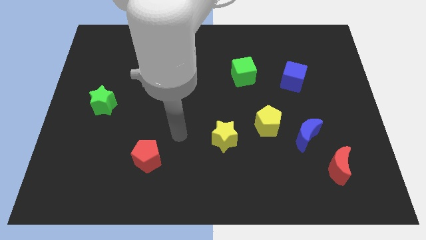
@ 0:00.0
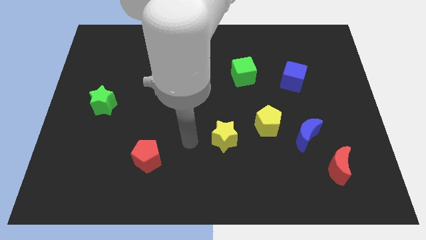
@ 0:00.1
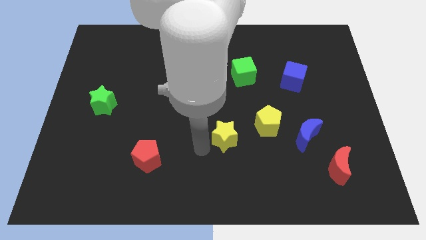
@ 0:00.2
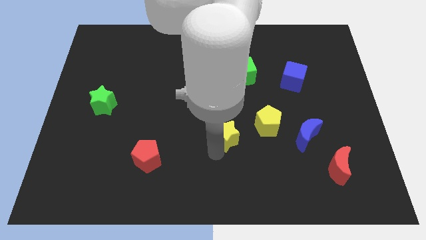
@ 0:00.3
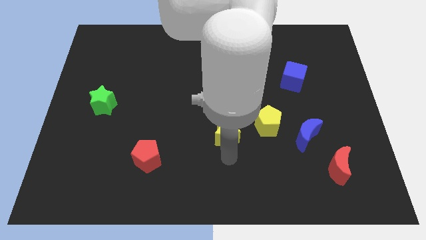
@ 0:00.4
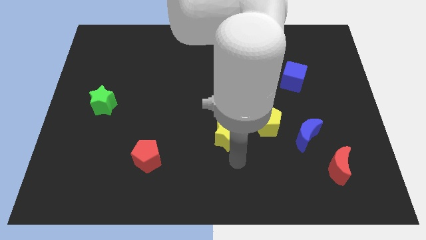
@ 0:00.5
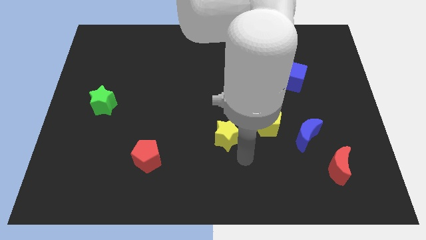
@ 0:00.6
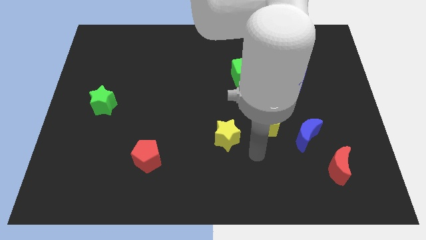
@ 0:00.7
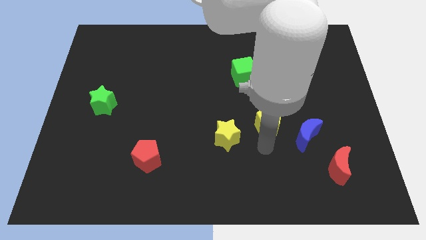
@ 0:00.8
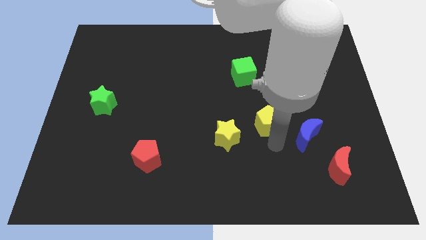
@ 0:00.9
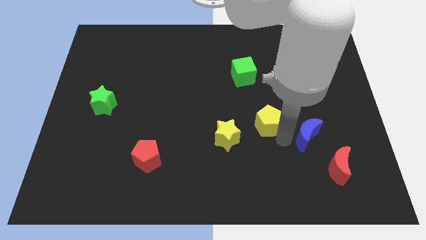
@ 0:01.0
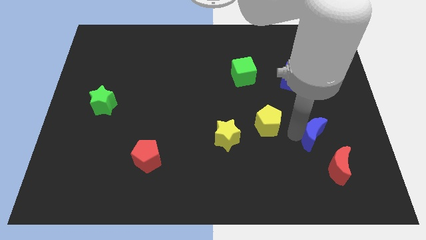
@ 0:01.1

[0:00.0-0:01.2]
pull the yellow pentagon apart from the blue moon

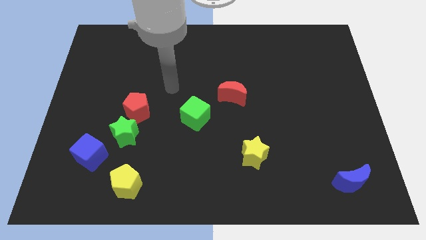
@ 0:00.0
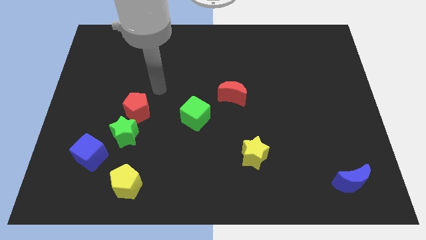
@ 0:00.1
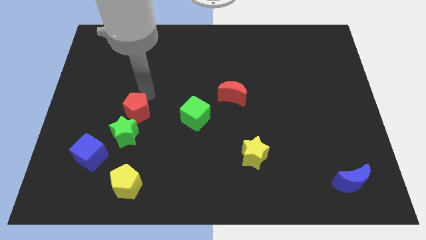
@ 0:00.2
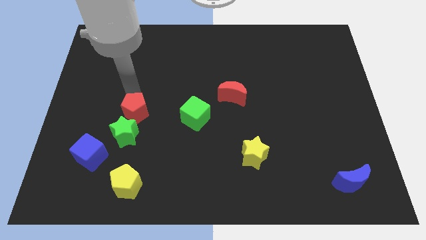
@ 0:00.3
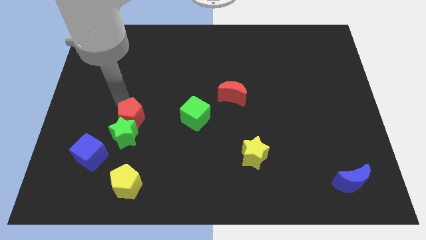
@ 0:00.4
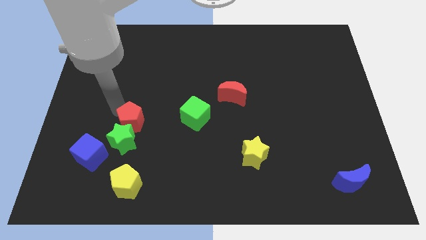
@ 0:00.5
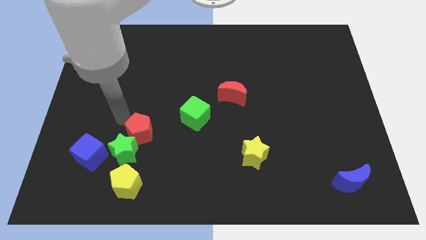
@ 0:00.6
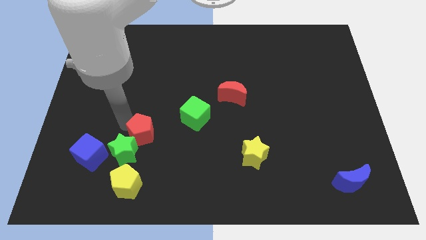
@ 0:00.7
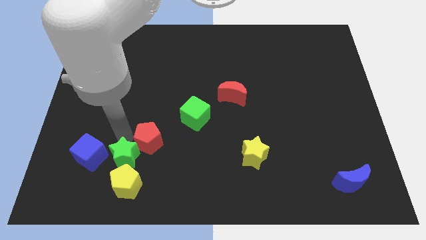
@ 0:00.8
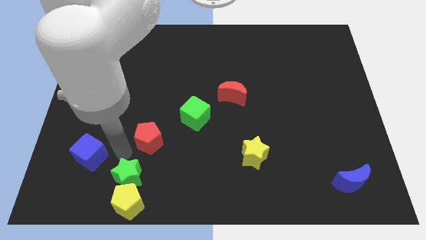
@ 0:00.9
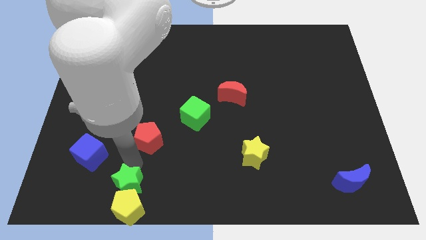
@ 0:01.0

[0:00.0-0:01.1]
separate the red pentagon from the green star

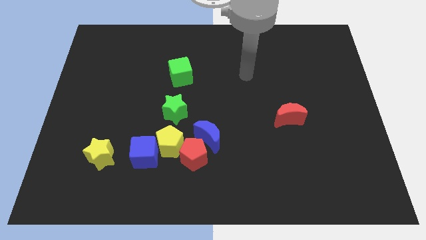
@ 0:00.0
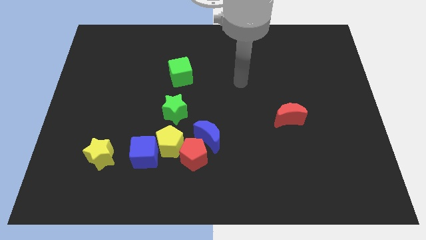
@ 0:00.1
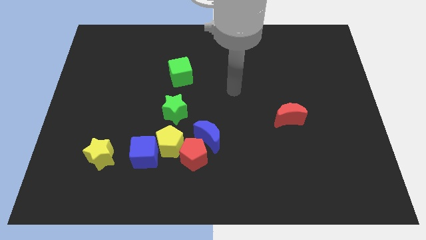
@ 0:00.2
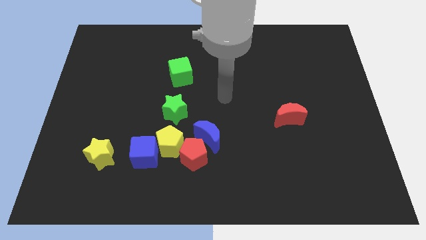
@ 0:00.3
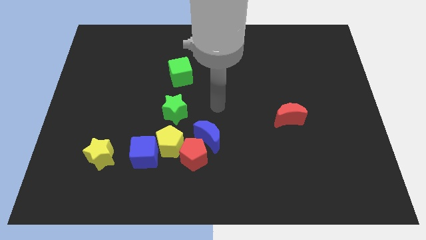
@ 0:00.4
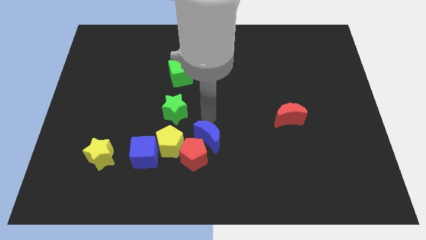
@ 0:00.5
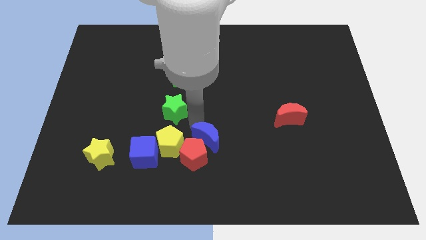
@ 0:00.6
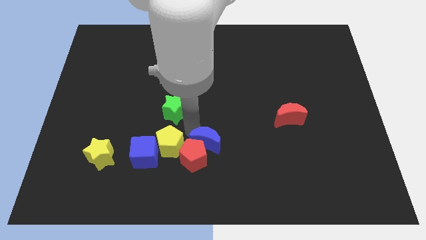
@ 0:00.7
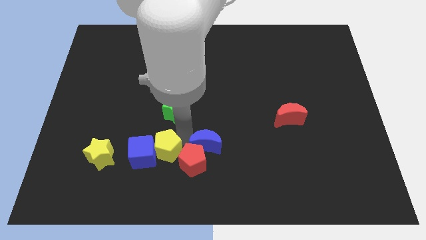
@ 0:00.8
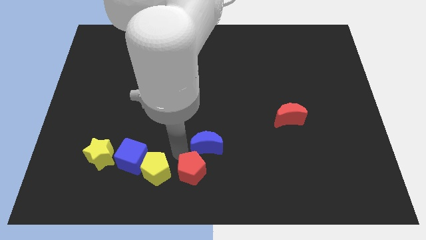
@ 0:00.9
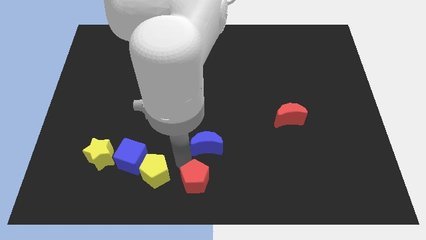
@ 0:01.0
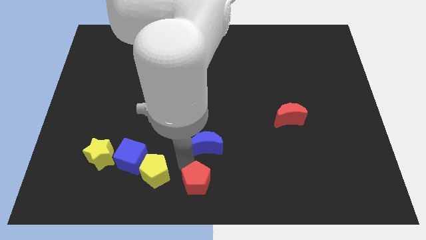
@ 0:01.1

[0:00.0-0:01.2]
separate the blue moon from the red pentagon and yellow pentagon

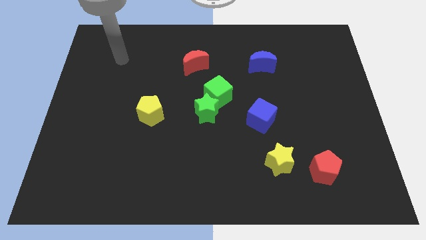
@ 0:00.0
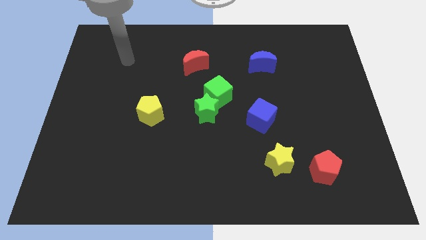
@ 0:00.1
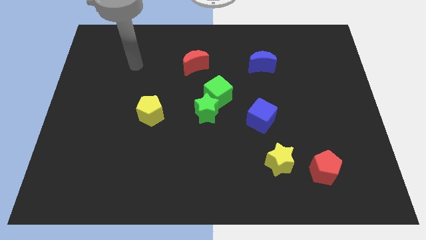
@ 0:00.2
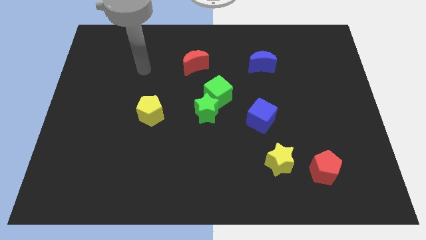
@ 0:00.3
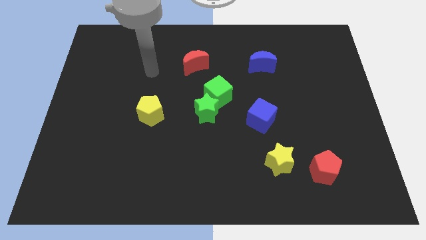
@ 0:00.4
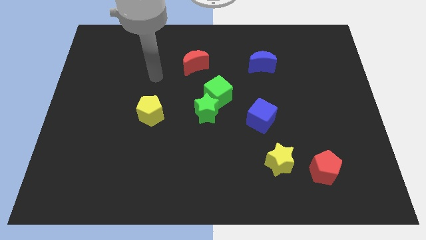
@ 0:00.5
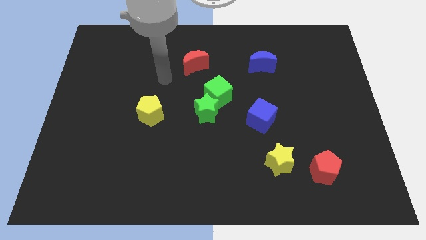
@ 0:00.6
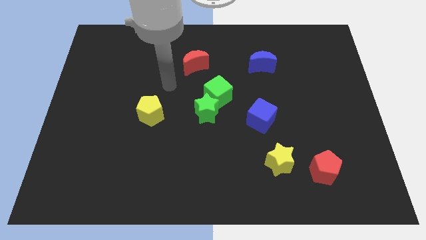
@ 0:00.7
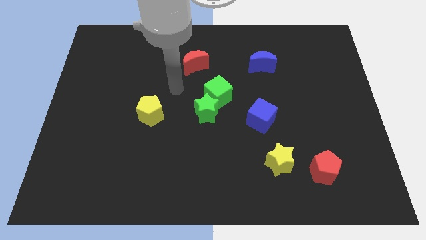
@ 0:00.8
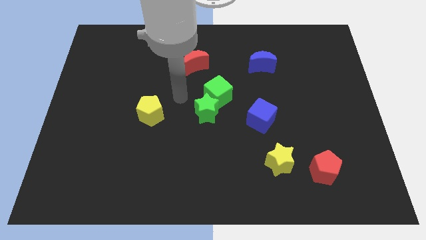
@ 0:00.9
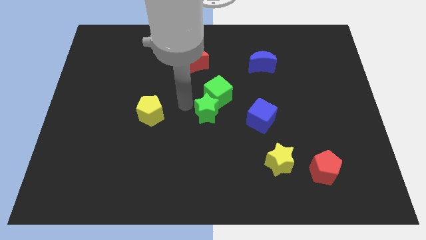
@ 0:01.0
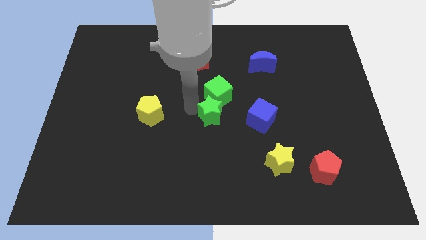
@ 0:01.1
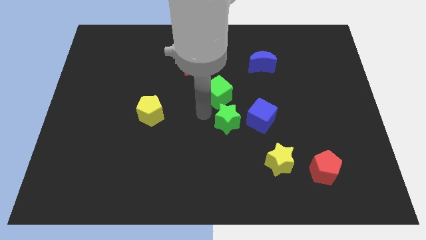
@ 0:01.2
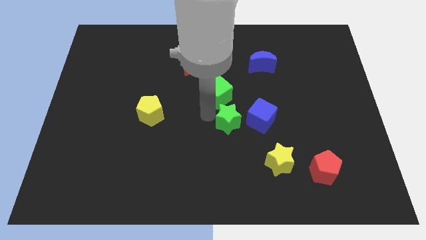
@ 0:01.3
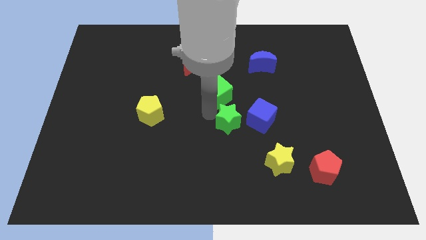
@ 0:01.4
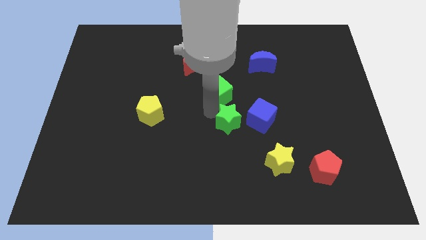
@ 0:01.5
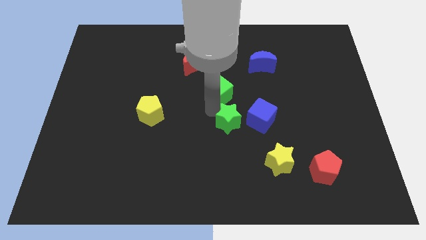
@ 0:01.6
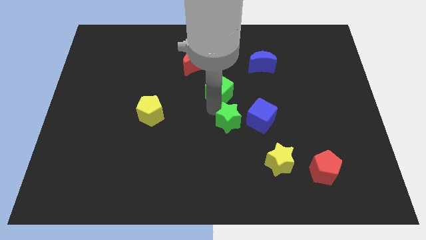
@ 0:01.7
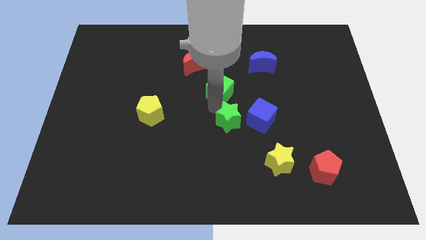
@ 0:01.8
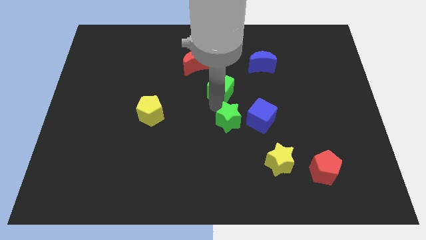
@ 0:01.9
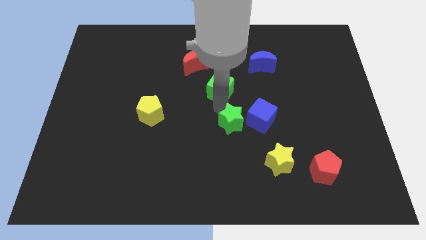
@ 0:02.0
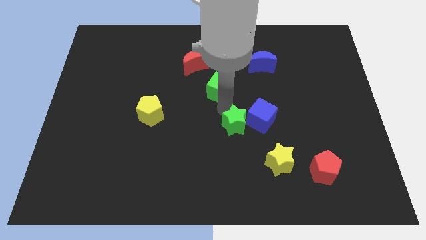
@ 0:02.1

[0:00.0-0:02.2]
move the green cube away from the green star

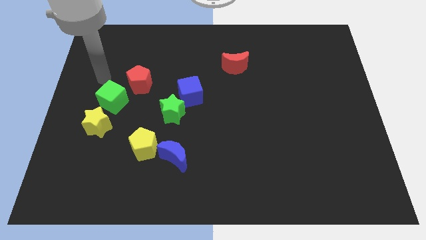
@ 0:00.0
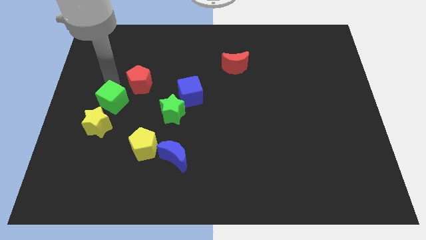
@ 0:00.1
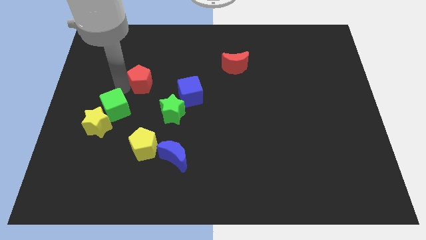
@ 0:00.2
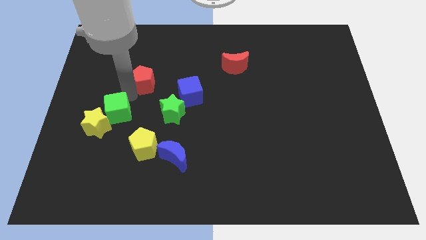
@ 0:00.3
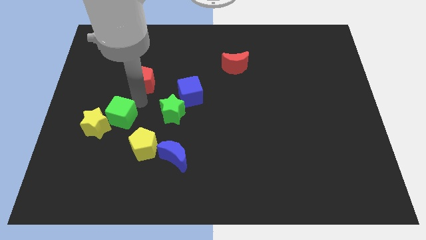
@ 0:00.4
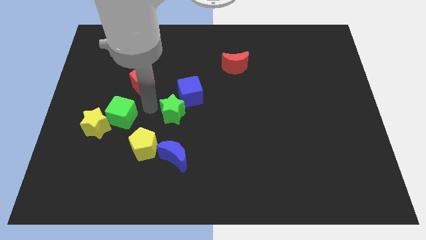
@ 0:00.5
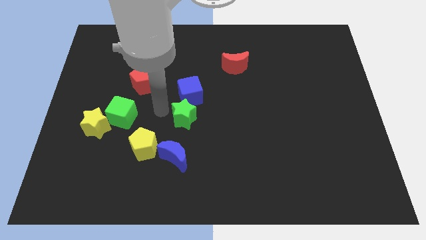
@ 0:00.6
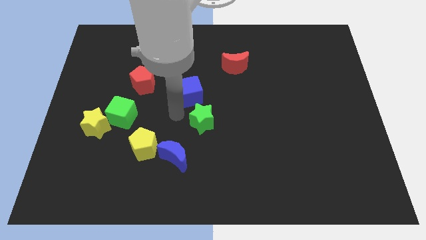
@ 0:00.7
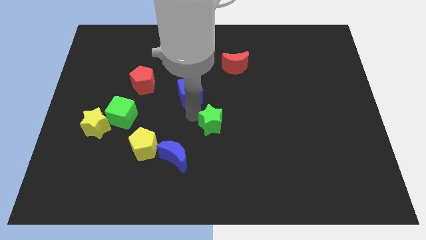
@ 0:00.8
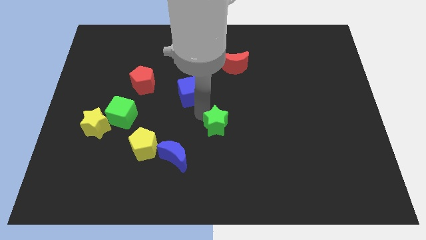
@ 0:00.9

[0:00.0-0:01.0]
pull the blue cube apart from the green star

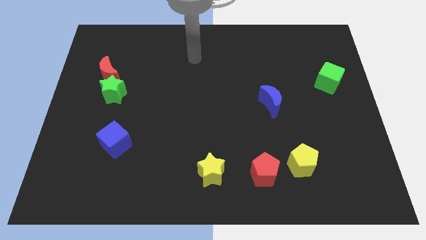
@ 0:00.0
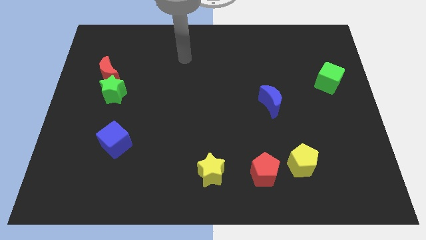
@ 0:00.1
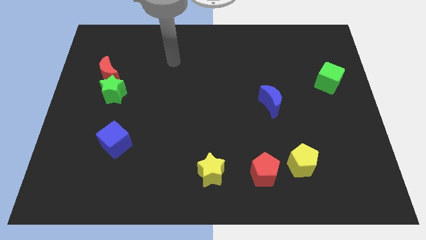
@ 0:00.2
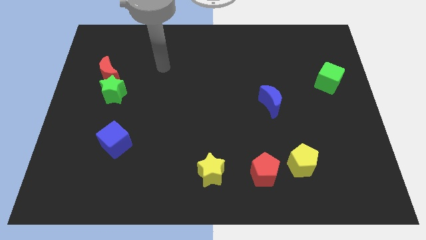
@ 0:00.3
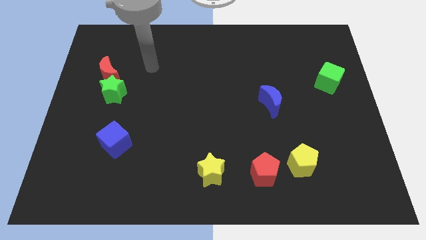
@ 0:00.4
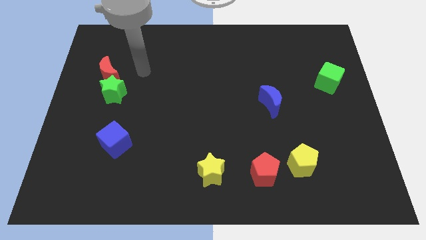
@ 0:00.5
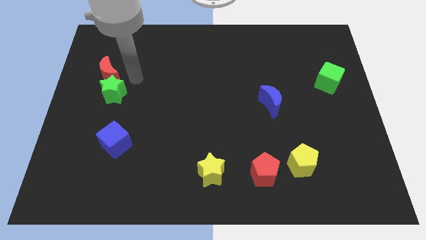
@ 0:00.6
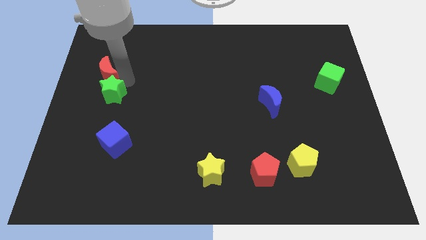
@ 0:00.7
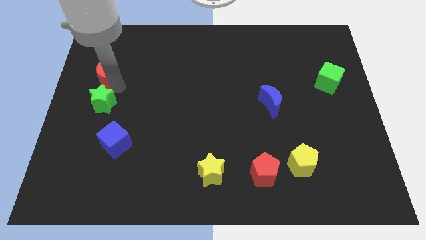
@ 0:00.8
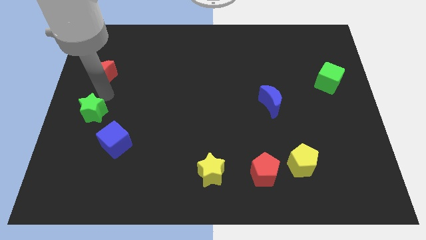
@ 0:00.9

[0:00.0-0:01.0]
separate the red moon from the green star

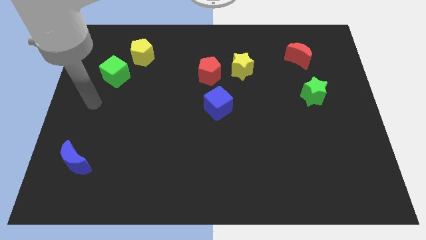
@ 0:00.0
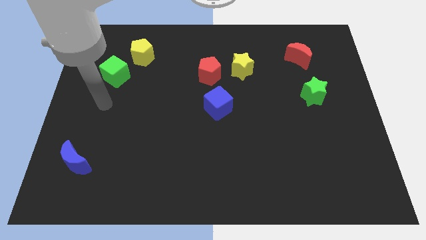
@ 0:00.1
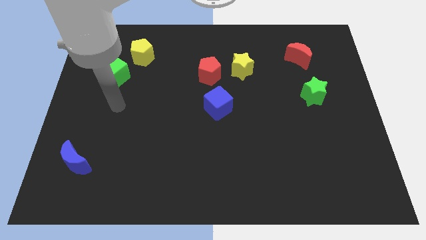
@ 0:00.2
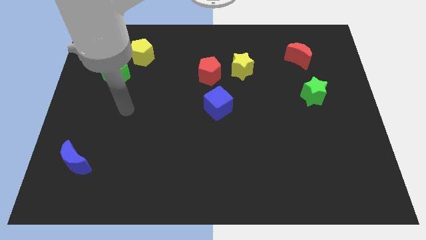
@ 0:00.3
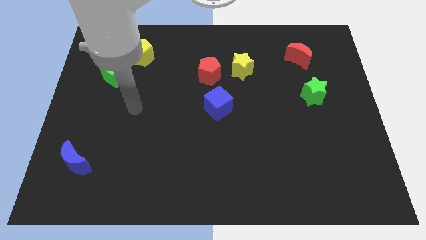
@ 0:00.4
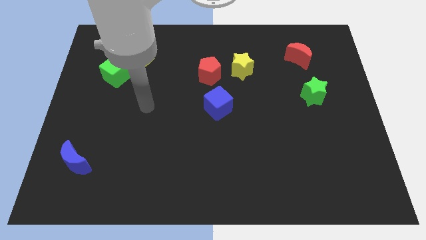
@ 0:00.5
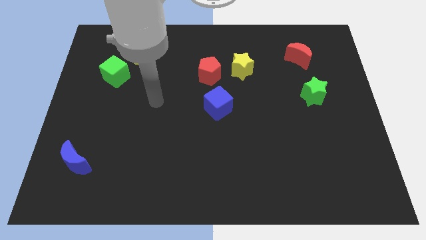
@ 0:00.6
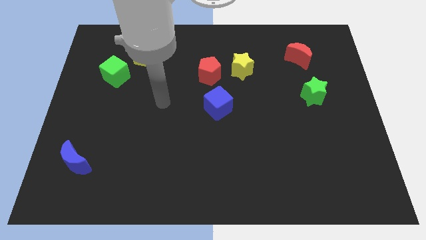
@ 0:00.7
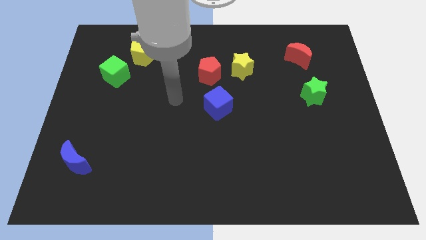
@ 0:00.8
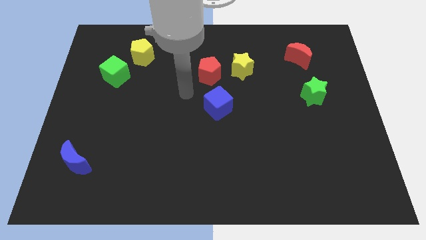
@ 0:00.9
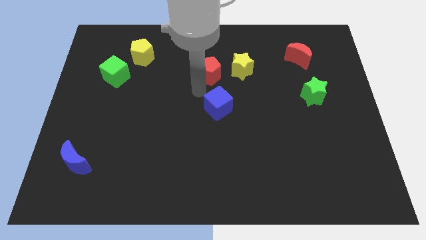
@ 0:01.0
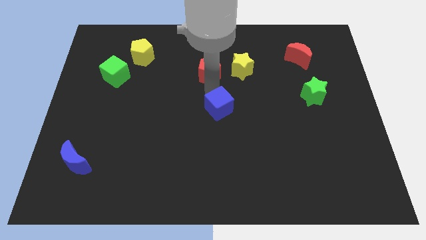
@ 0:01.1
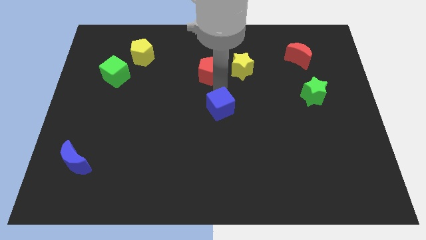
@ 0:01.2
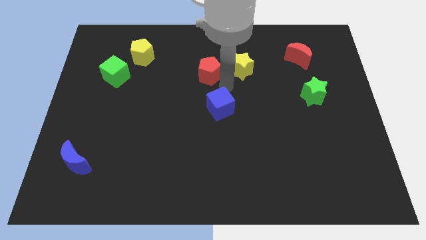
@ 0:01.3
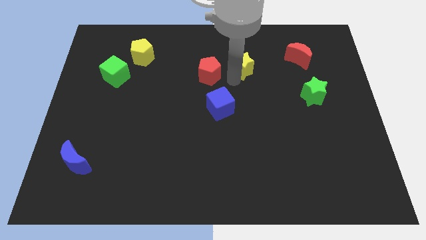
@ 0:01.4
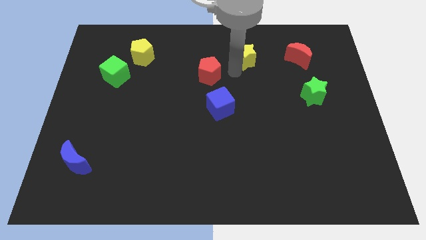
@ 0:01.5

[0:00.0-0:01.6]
move the red pentagon away from the yellow star
